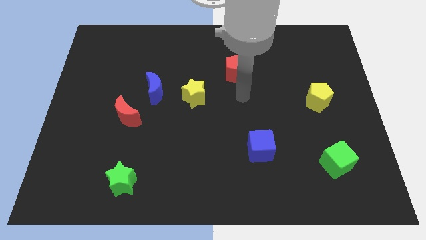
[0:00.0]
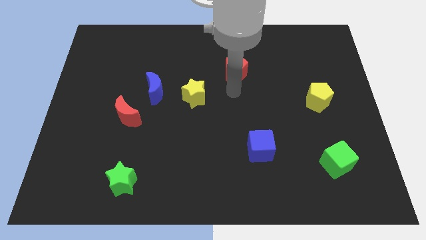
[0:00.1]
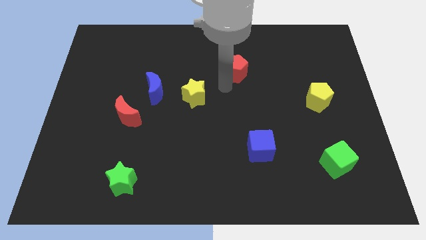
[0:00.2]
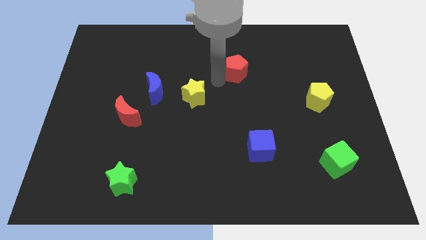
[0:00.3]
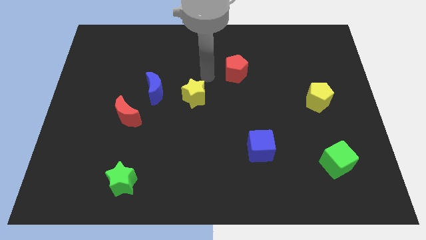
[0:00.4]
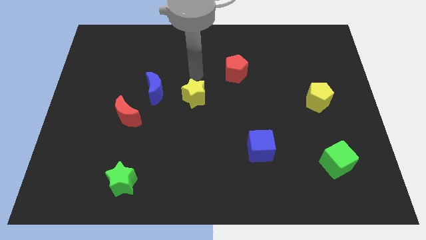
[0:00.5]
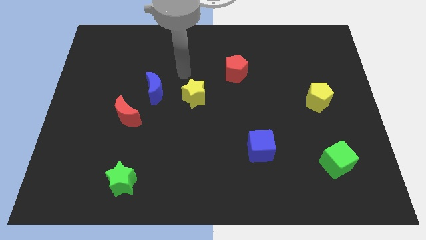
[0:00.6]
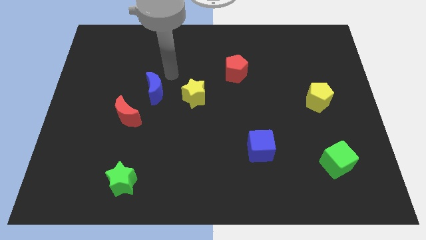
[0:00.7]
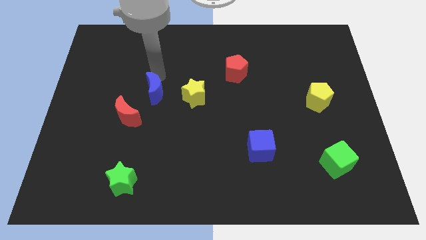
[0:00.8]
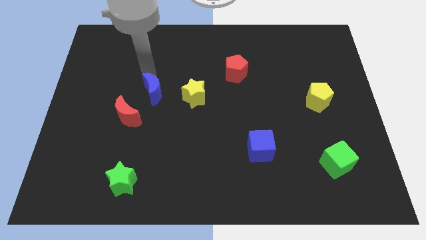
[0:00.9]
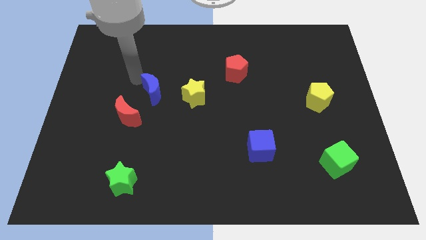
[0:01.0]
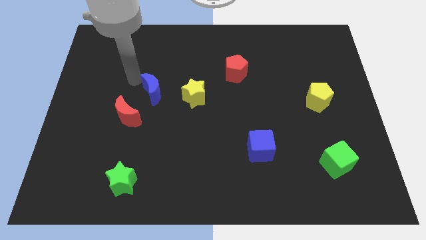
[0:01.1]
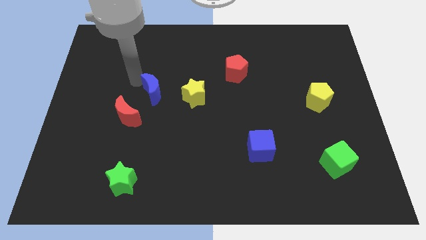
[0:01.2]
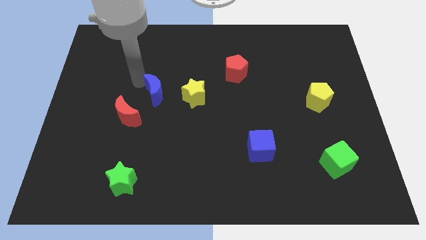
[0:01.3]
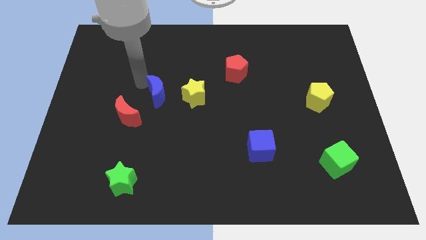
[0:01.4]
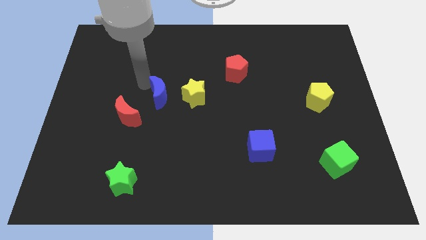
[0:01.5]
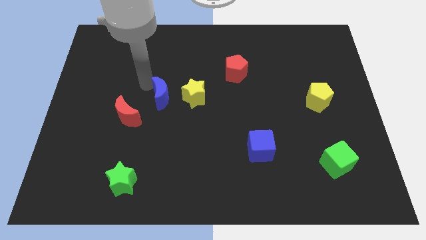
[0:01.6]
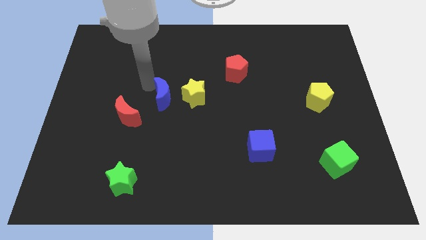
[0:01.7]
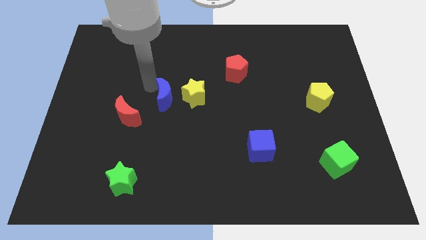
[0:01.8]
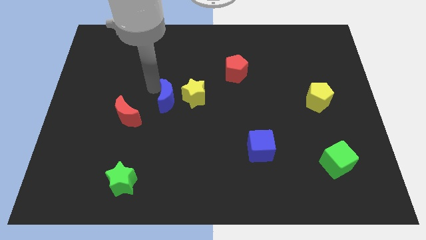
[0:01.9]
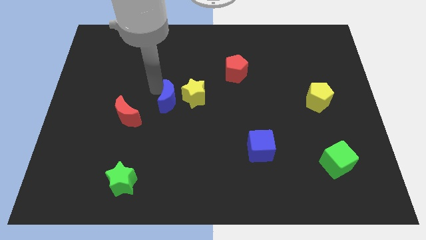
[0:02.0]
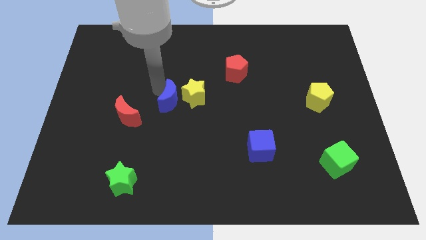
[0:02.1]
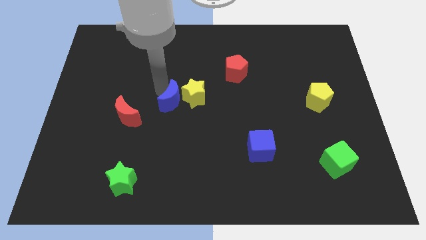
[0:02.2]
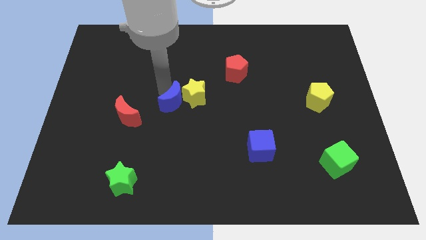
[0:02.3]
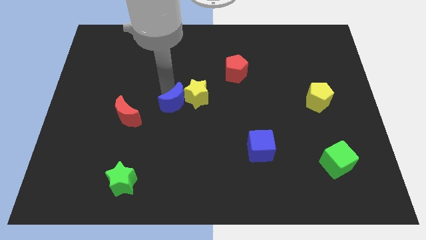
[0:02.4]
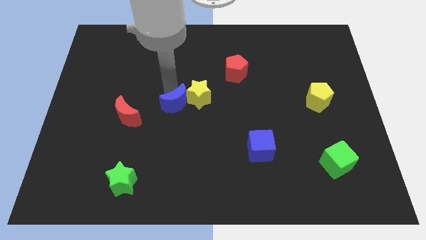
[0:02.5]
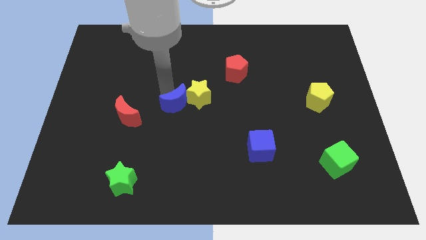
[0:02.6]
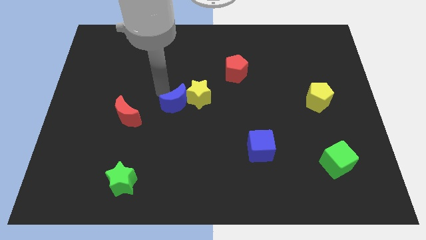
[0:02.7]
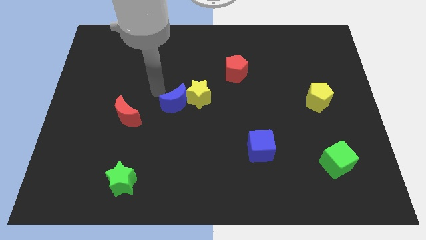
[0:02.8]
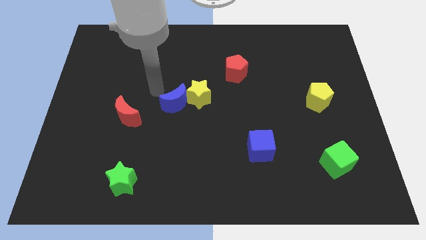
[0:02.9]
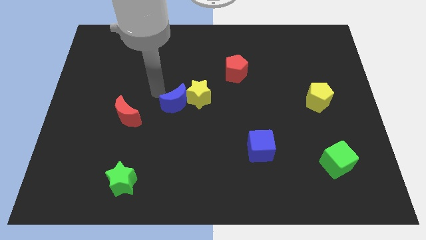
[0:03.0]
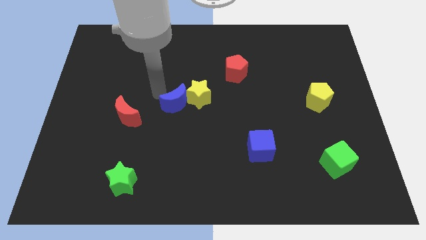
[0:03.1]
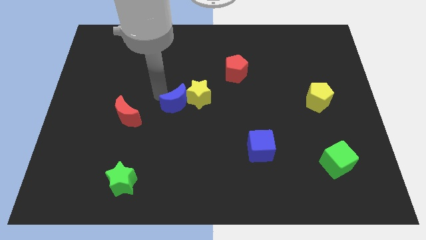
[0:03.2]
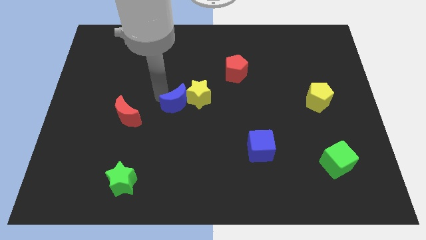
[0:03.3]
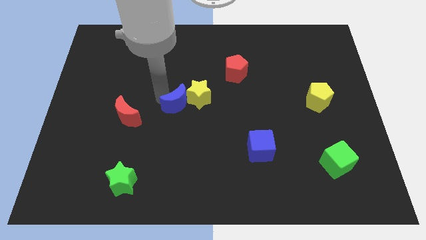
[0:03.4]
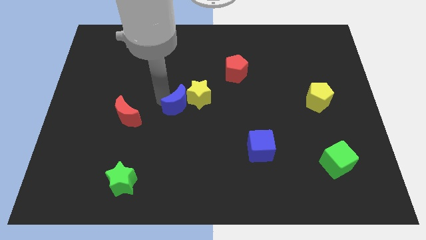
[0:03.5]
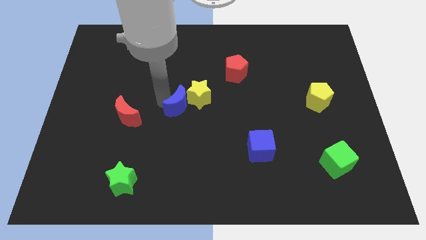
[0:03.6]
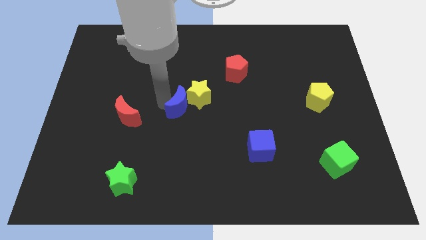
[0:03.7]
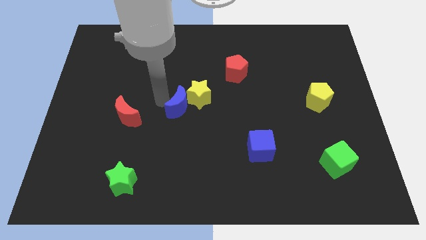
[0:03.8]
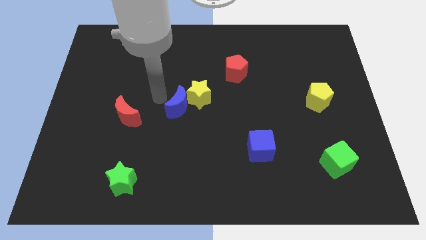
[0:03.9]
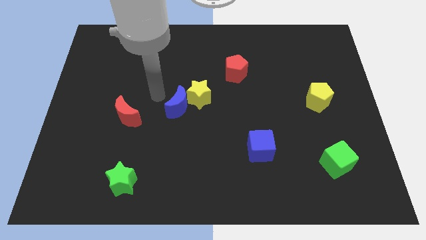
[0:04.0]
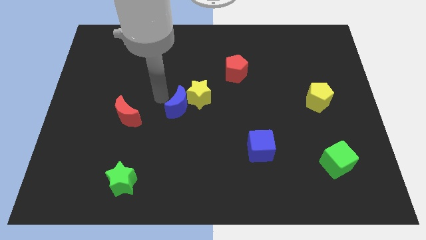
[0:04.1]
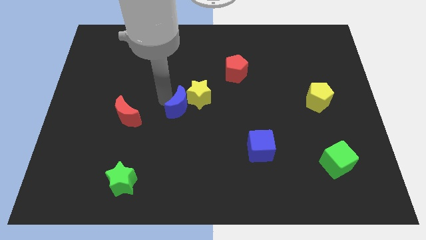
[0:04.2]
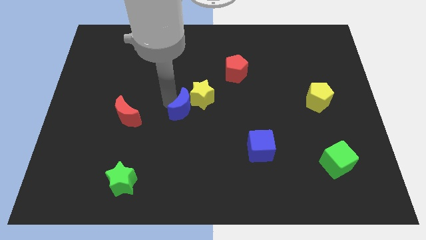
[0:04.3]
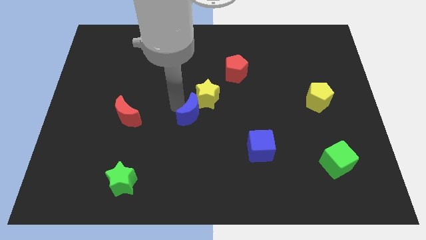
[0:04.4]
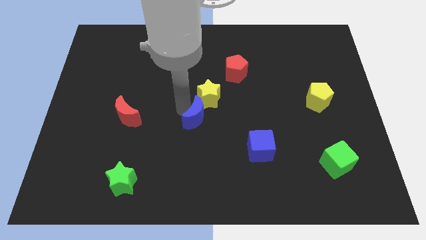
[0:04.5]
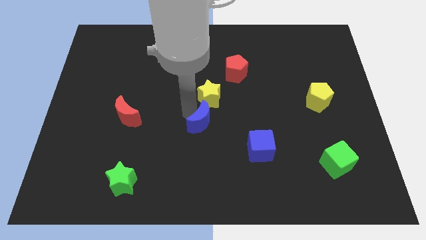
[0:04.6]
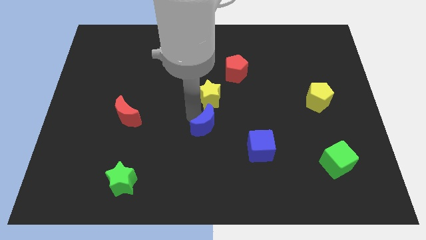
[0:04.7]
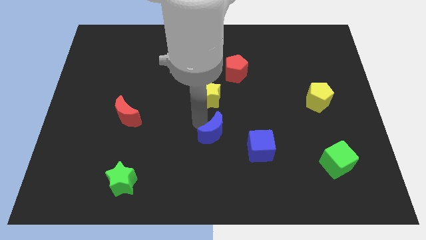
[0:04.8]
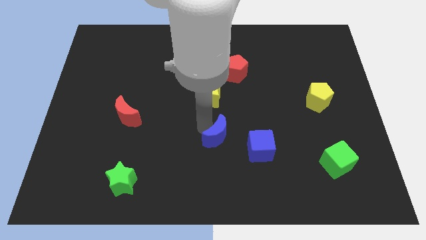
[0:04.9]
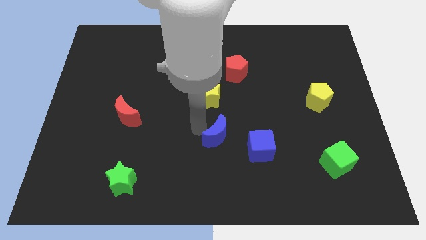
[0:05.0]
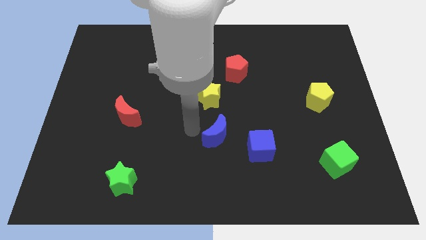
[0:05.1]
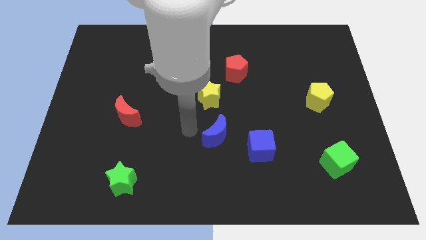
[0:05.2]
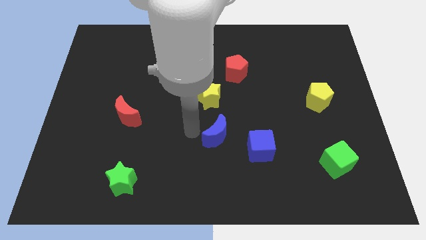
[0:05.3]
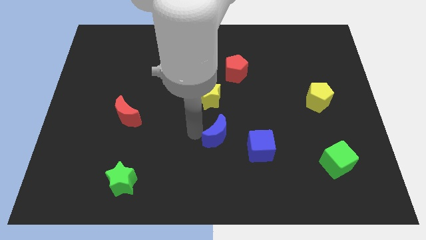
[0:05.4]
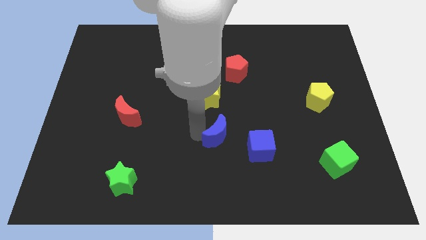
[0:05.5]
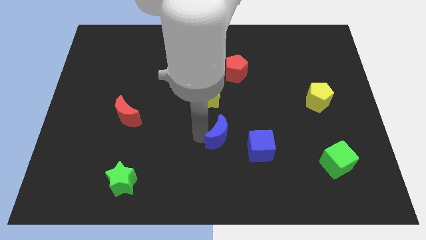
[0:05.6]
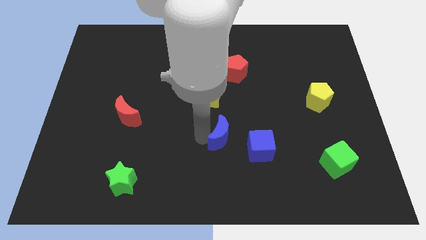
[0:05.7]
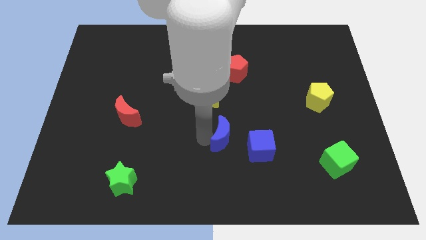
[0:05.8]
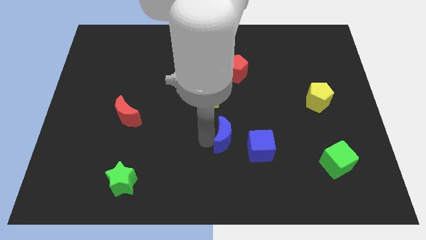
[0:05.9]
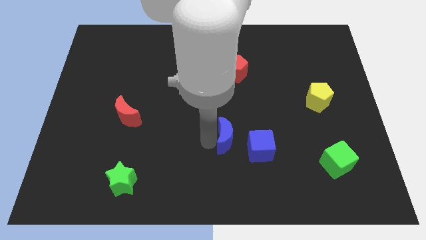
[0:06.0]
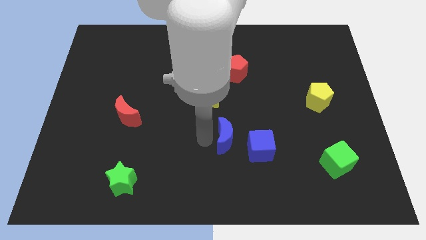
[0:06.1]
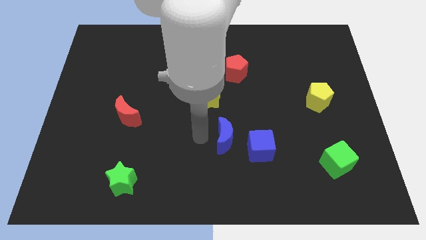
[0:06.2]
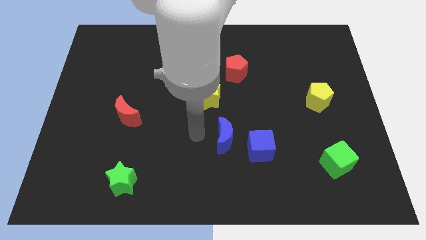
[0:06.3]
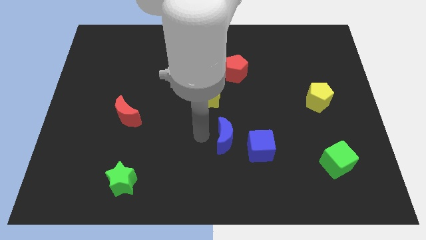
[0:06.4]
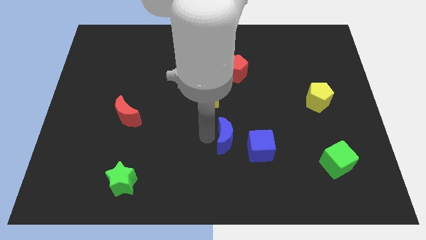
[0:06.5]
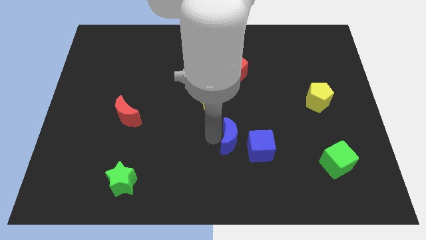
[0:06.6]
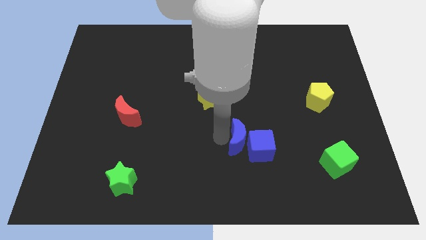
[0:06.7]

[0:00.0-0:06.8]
push the blue moon next to the blue cube

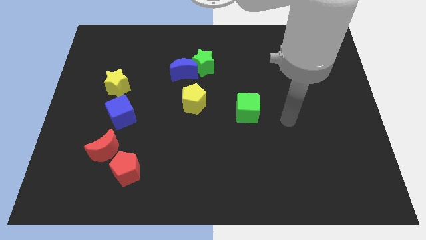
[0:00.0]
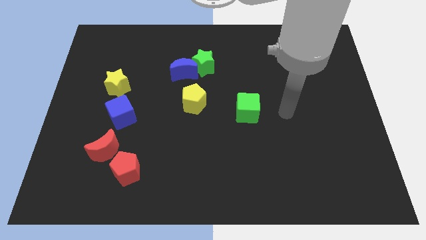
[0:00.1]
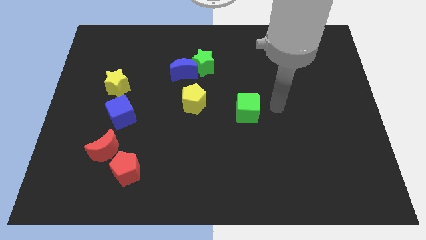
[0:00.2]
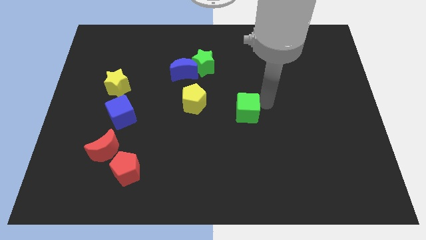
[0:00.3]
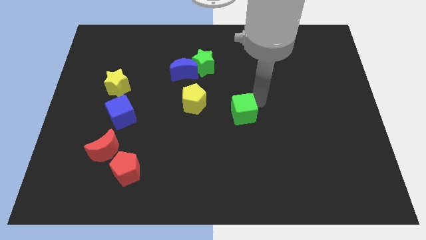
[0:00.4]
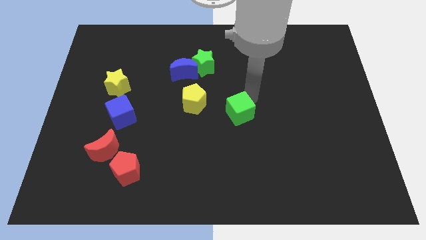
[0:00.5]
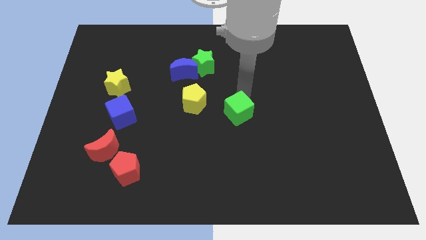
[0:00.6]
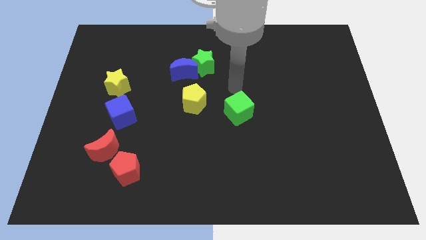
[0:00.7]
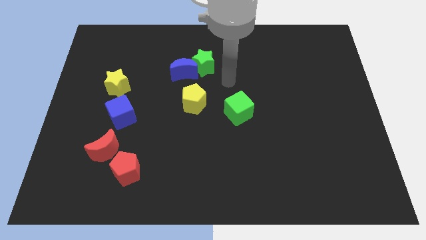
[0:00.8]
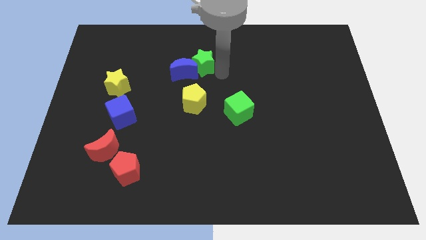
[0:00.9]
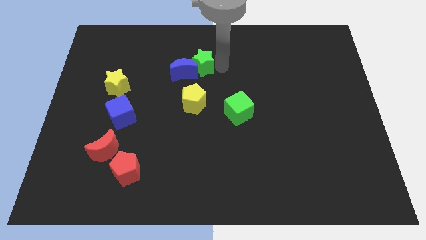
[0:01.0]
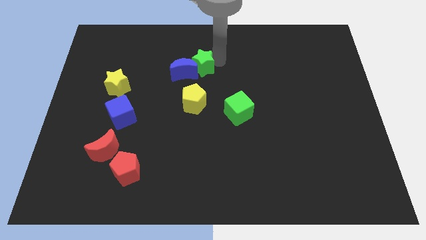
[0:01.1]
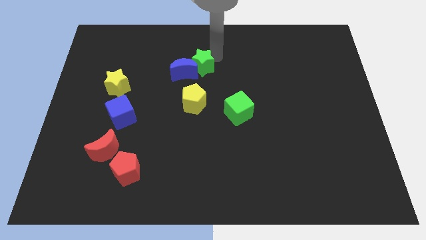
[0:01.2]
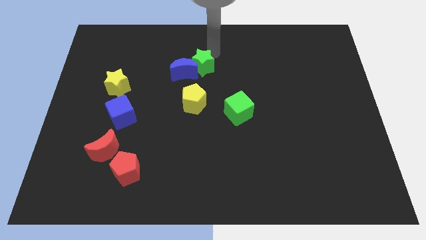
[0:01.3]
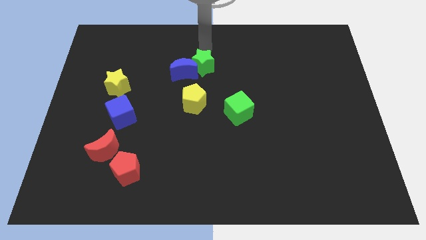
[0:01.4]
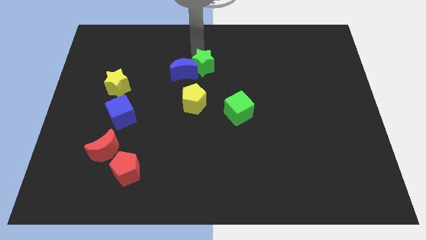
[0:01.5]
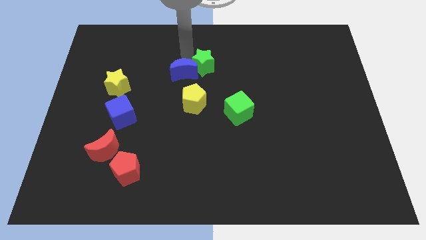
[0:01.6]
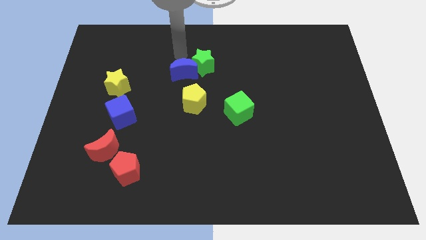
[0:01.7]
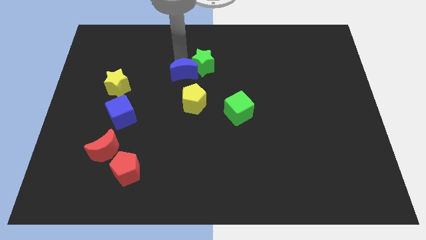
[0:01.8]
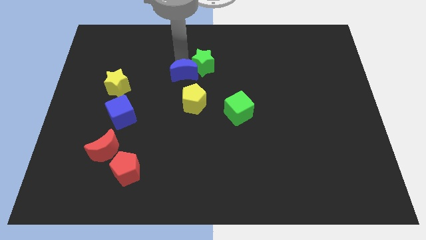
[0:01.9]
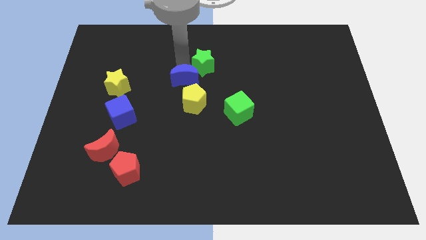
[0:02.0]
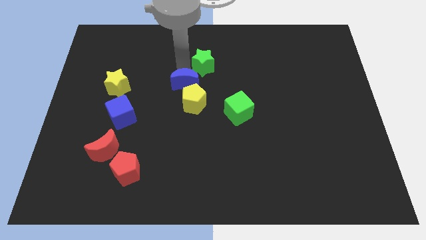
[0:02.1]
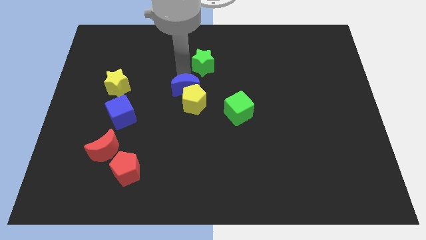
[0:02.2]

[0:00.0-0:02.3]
move the blue moon towards the yellow pentagon
